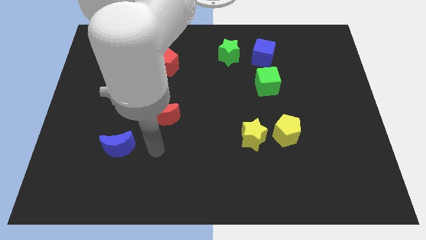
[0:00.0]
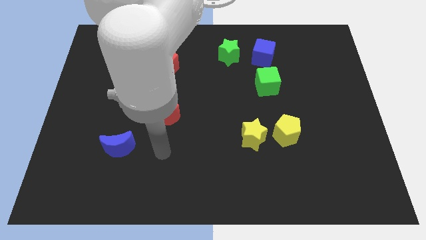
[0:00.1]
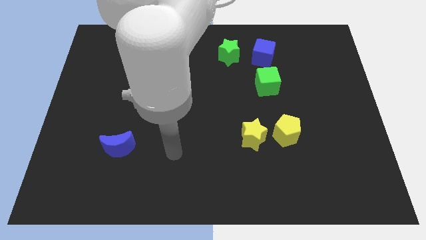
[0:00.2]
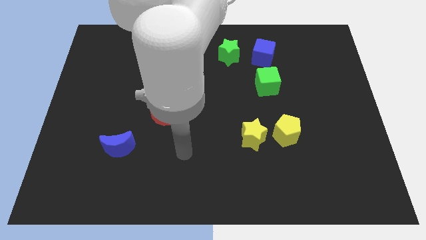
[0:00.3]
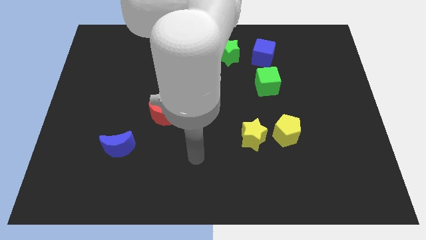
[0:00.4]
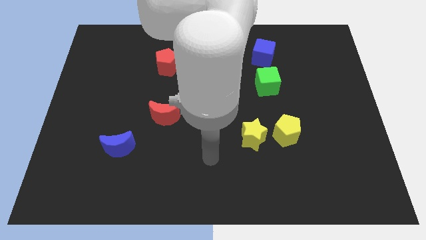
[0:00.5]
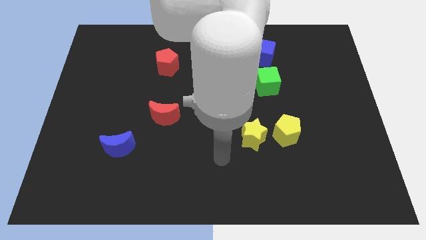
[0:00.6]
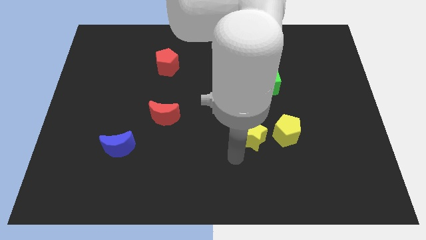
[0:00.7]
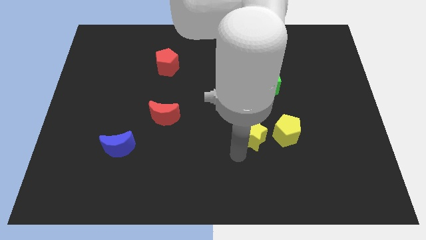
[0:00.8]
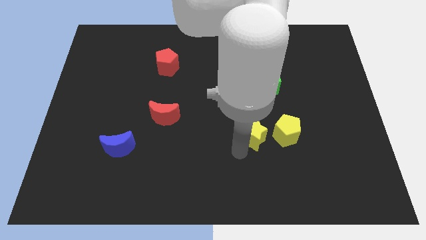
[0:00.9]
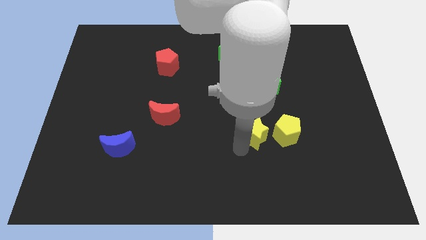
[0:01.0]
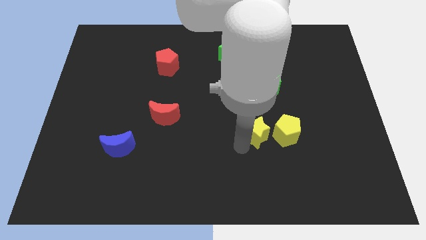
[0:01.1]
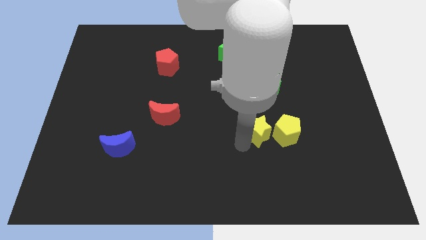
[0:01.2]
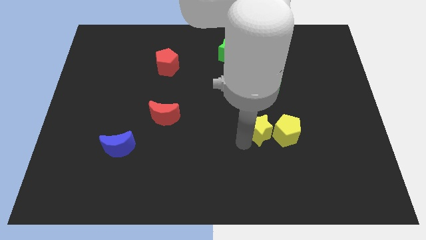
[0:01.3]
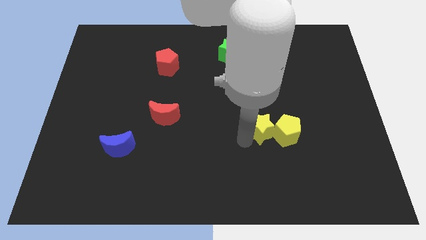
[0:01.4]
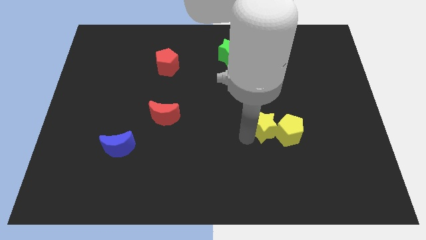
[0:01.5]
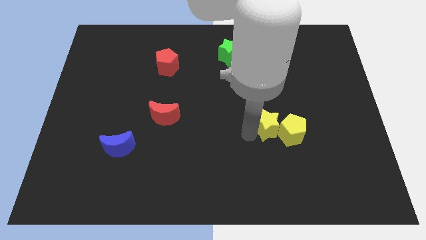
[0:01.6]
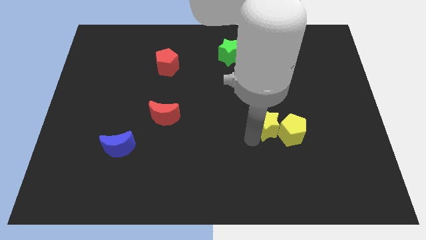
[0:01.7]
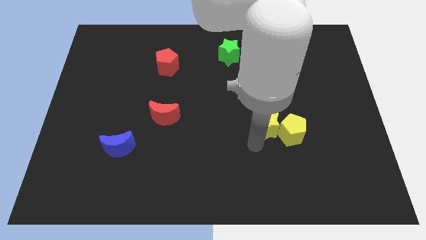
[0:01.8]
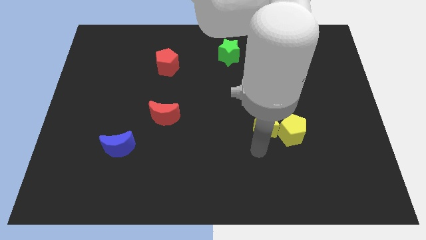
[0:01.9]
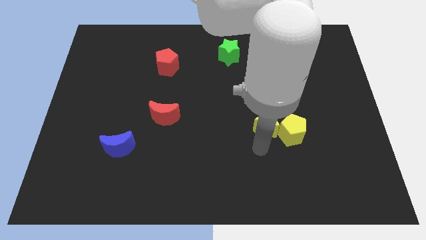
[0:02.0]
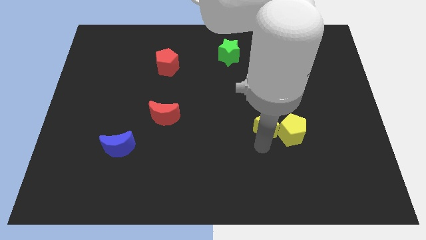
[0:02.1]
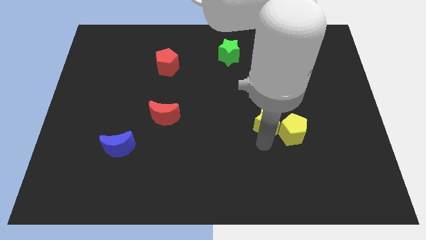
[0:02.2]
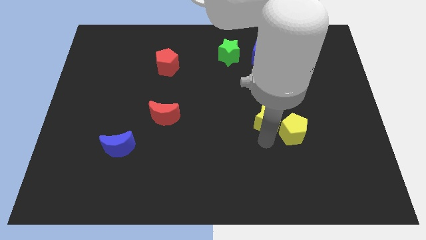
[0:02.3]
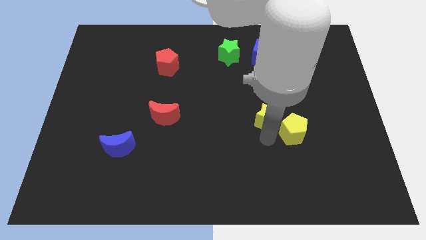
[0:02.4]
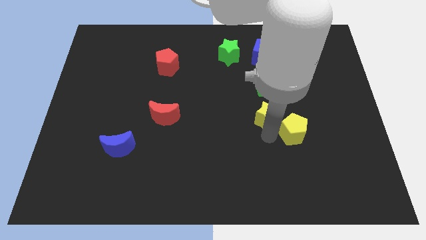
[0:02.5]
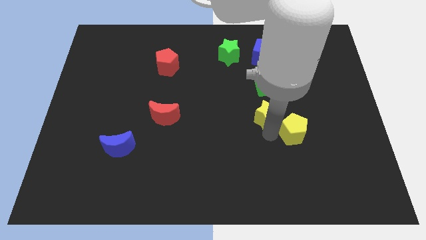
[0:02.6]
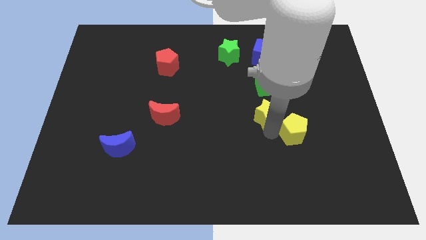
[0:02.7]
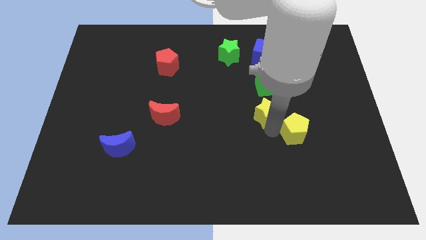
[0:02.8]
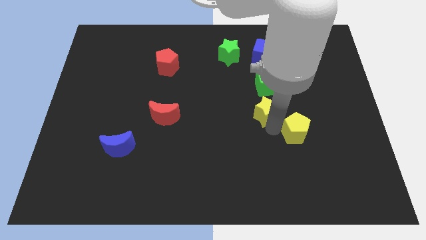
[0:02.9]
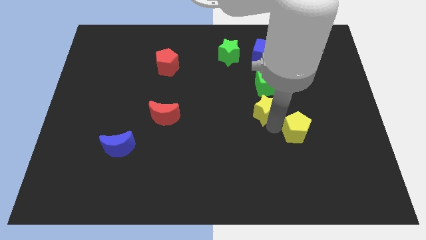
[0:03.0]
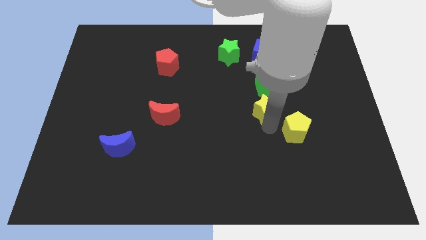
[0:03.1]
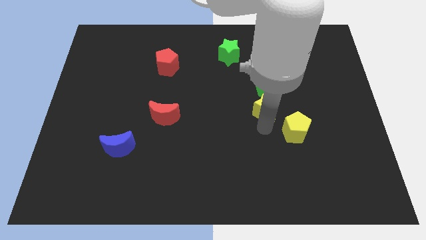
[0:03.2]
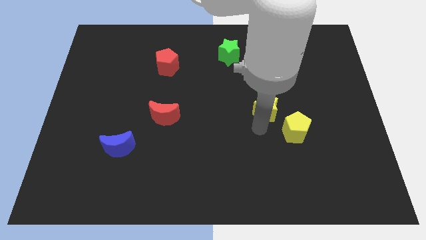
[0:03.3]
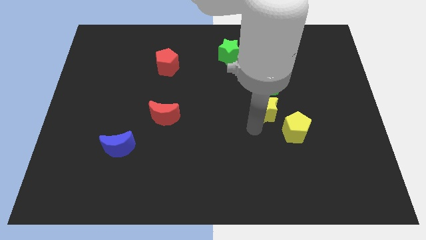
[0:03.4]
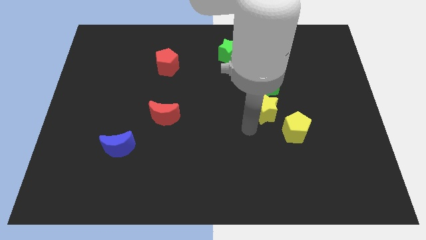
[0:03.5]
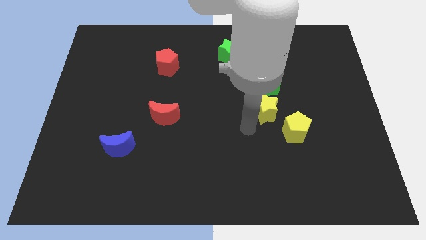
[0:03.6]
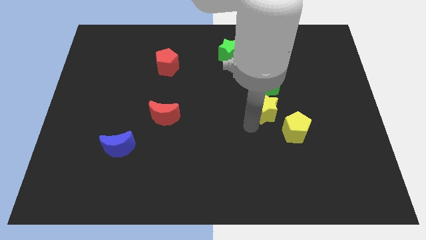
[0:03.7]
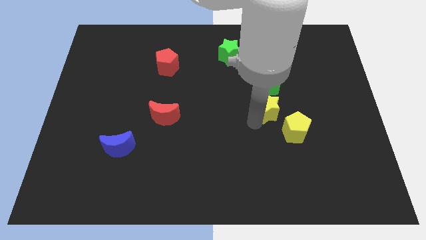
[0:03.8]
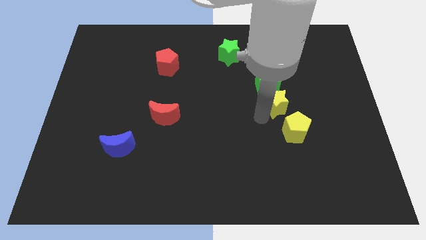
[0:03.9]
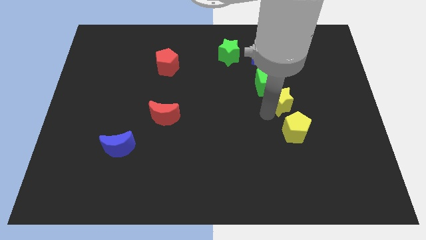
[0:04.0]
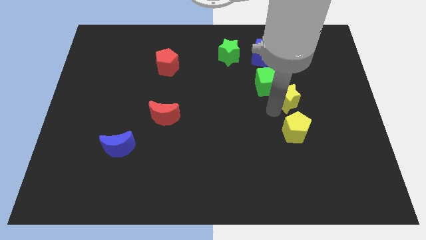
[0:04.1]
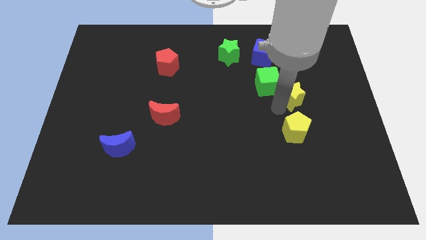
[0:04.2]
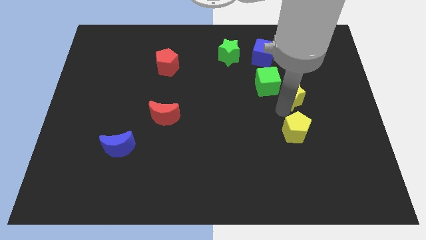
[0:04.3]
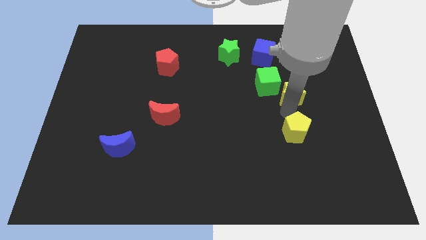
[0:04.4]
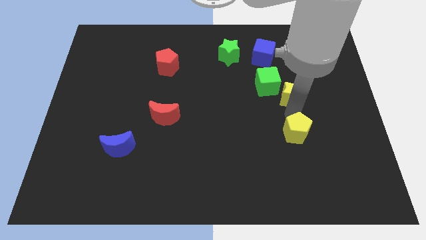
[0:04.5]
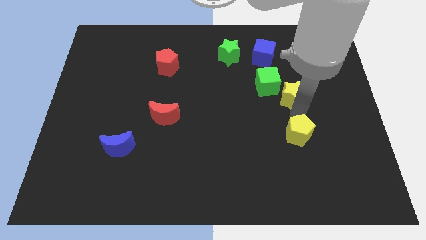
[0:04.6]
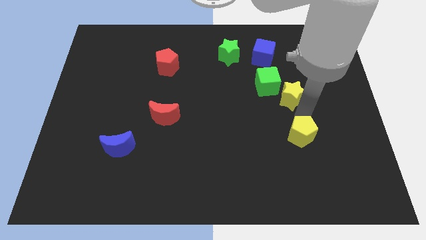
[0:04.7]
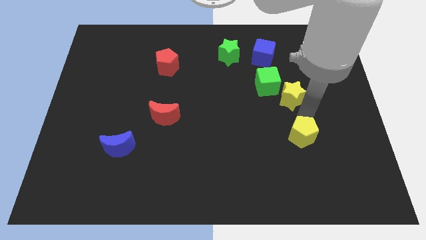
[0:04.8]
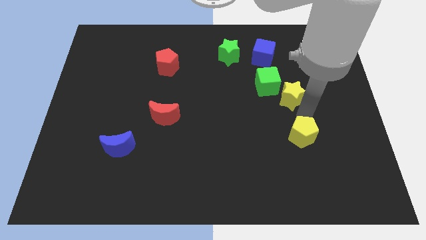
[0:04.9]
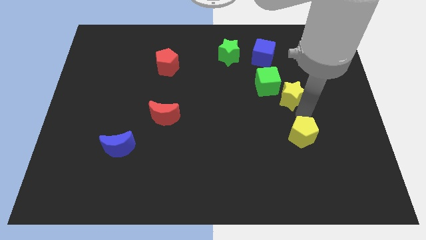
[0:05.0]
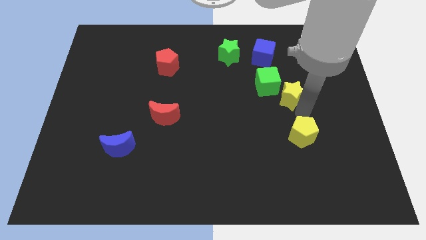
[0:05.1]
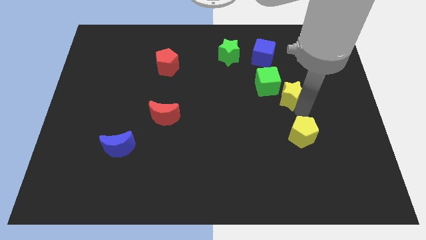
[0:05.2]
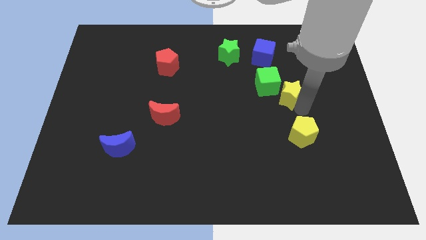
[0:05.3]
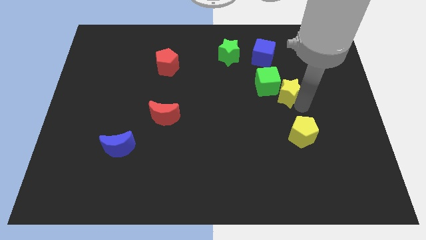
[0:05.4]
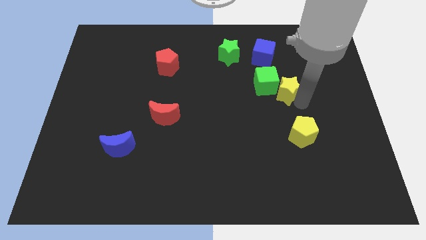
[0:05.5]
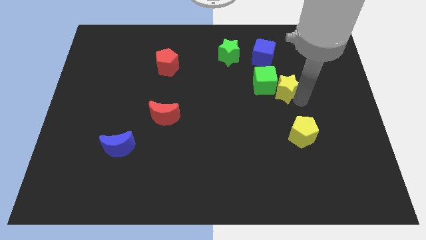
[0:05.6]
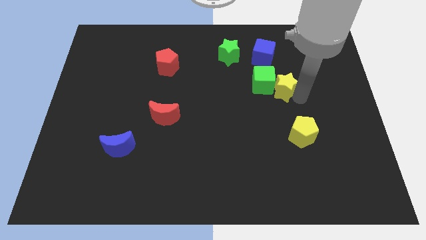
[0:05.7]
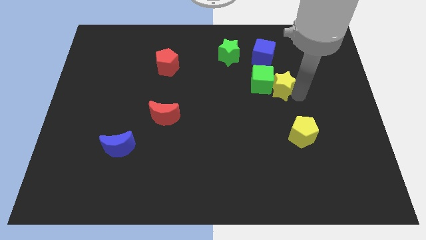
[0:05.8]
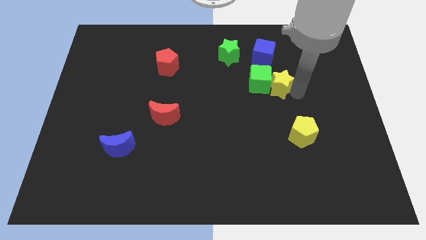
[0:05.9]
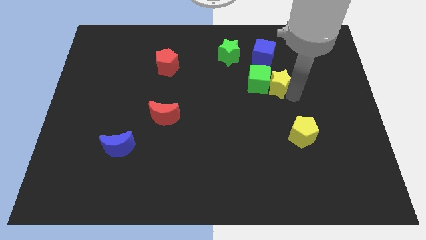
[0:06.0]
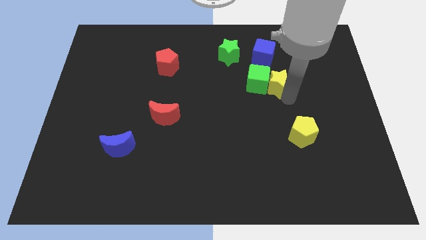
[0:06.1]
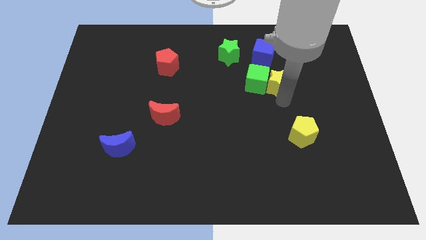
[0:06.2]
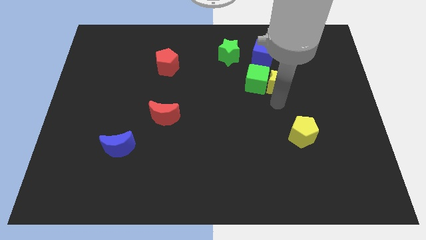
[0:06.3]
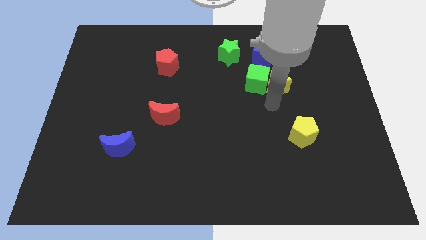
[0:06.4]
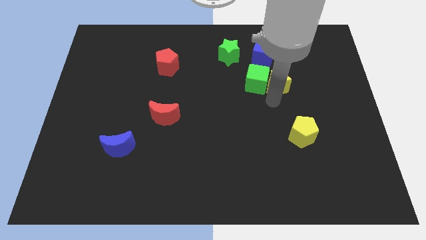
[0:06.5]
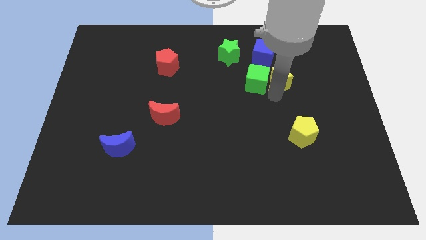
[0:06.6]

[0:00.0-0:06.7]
push the yellow star to the bottom right of the blue cube

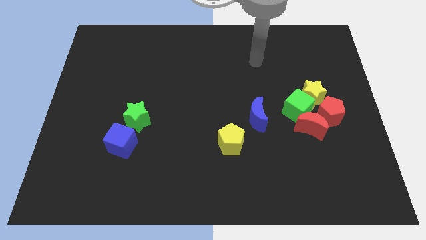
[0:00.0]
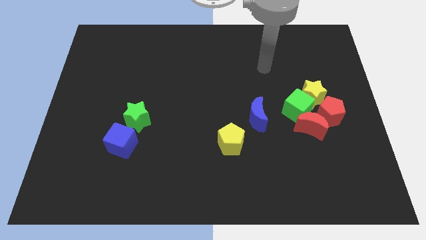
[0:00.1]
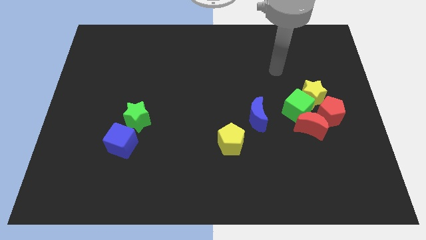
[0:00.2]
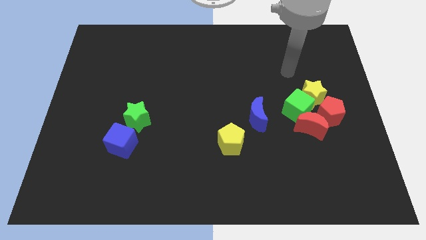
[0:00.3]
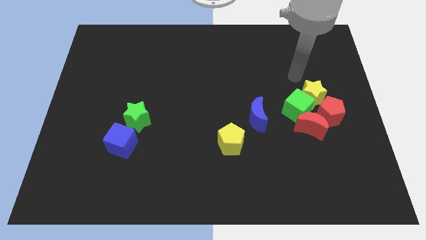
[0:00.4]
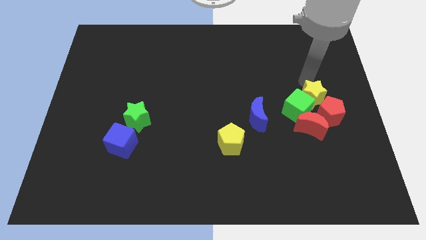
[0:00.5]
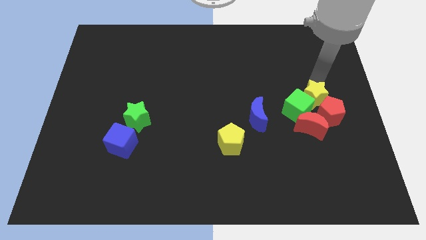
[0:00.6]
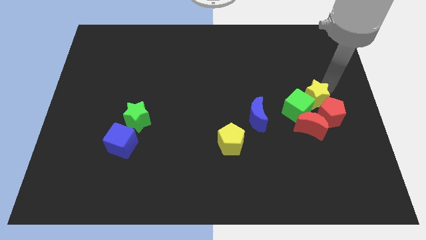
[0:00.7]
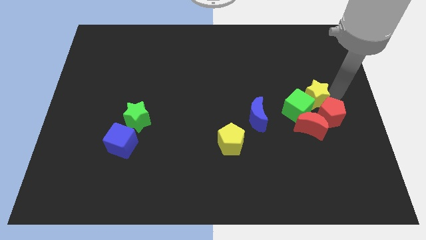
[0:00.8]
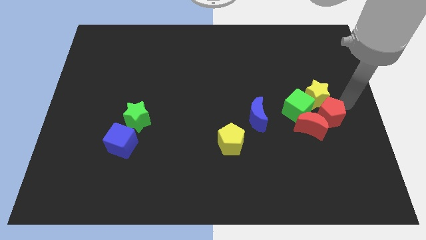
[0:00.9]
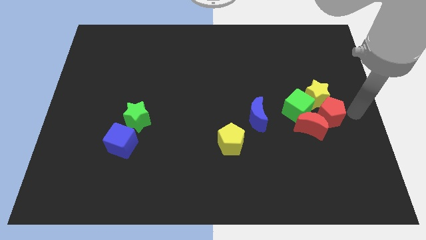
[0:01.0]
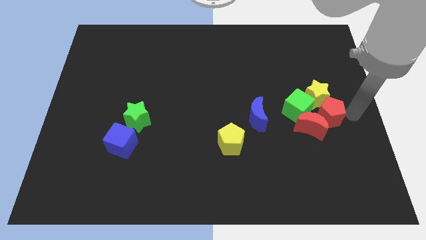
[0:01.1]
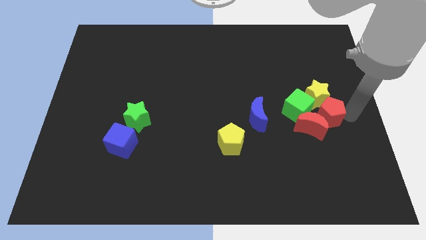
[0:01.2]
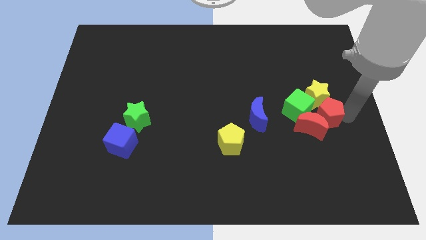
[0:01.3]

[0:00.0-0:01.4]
slide the red pentagon just right of the blue moon
